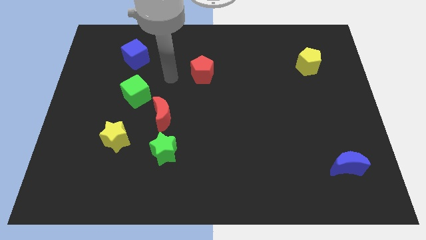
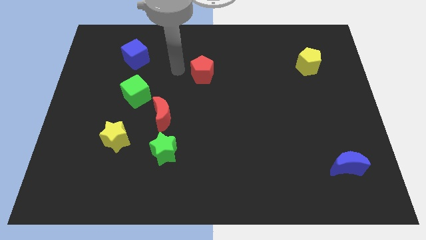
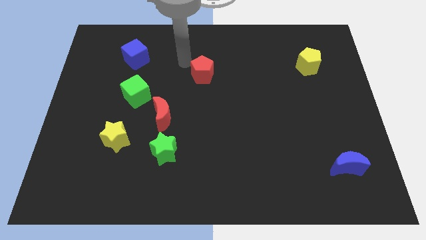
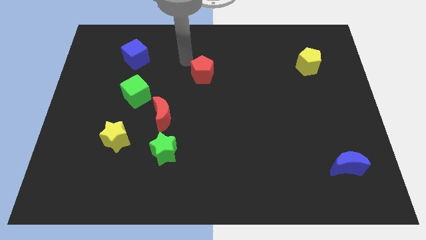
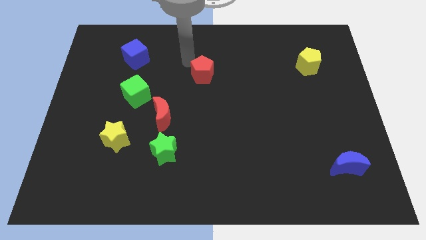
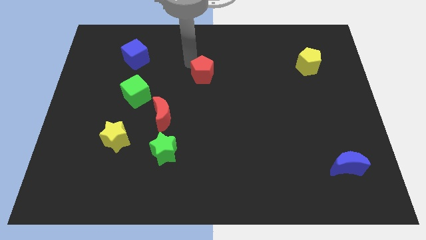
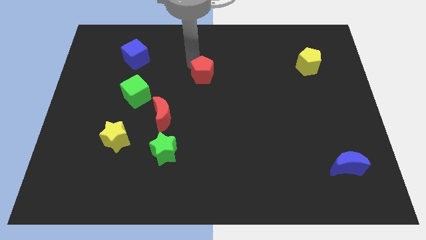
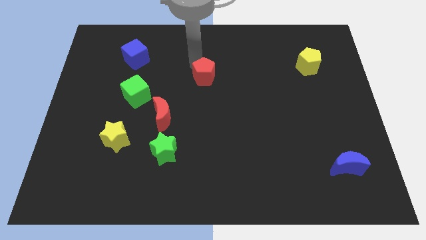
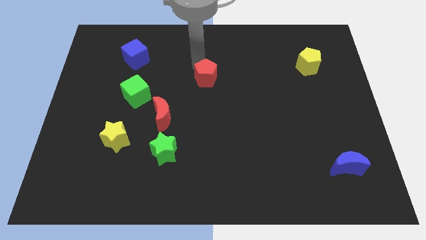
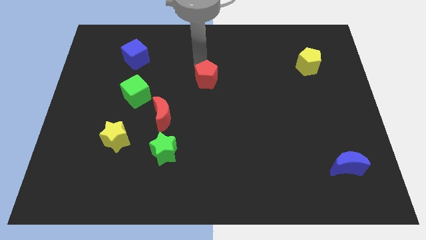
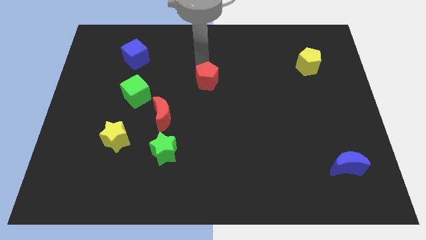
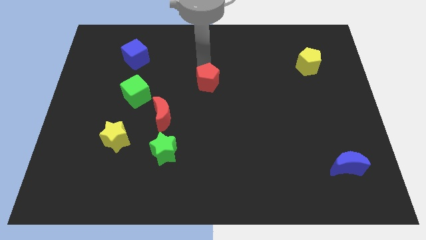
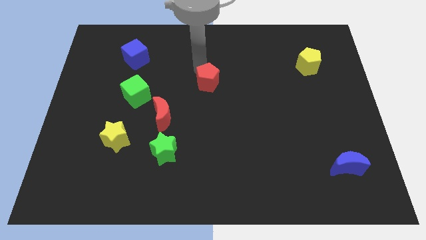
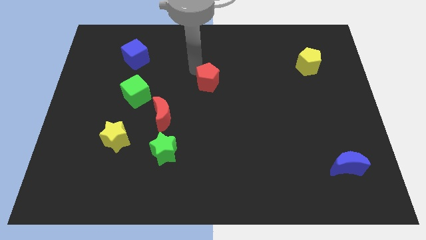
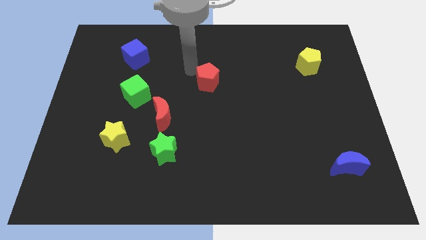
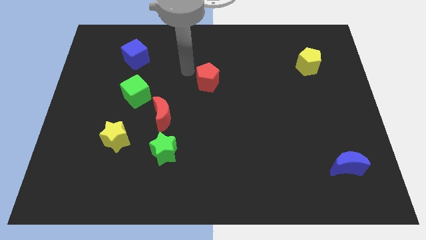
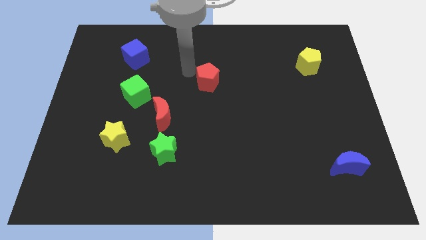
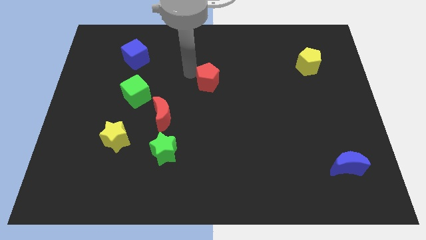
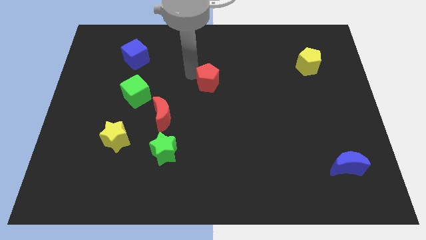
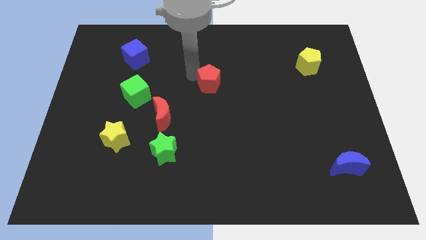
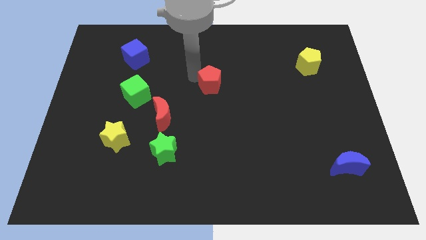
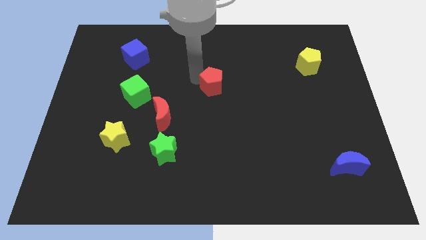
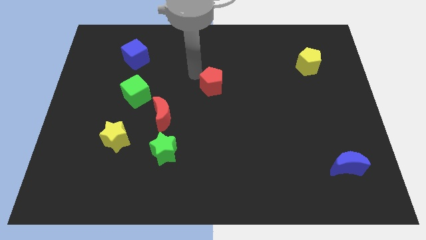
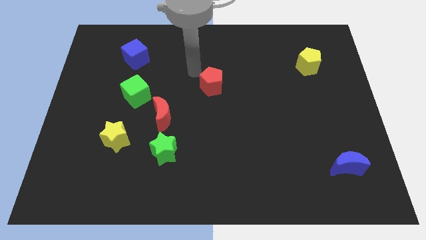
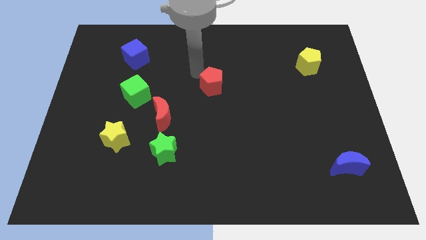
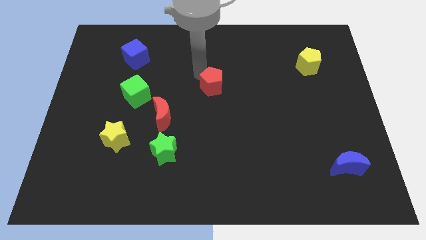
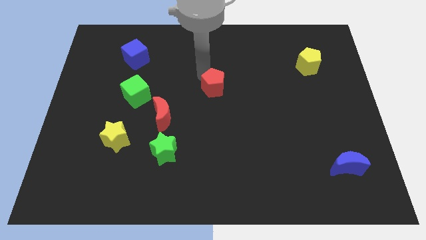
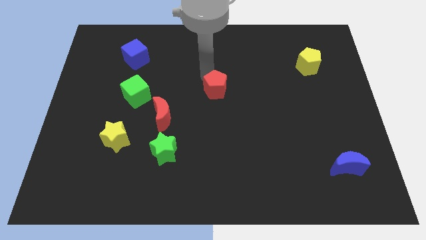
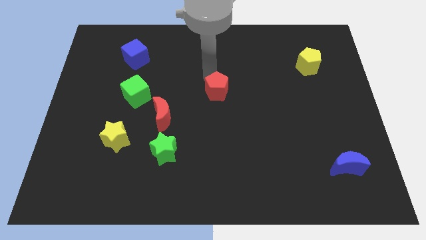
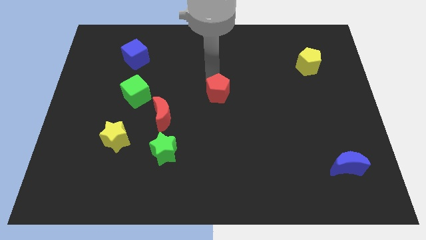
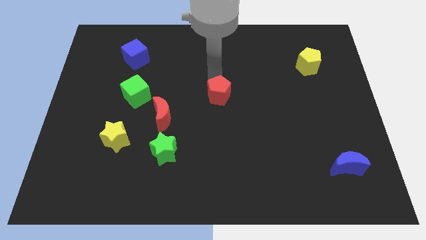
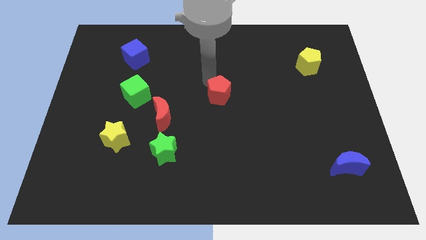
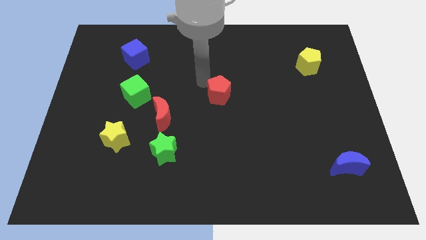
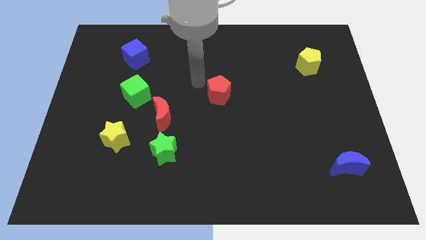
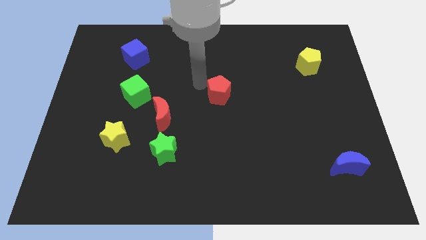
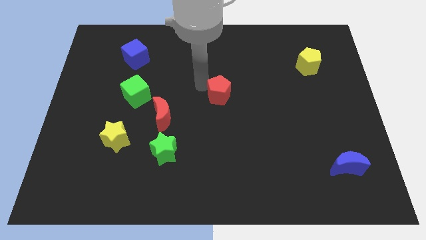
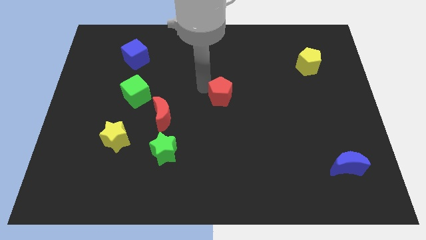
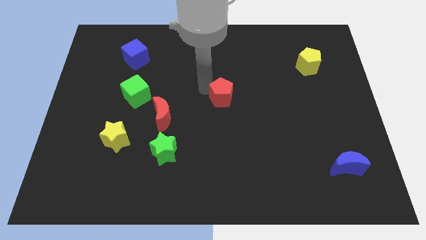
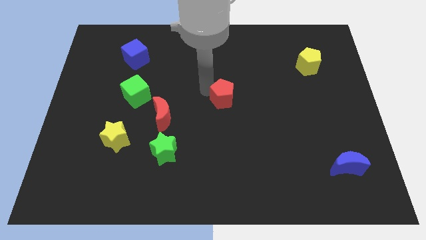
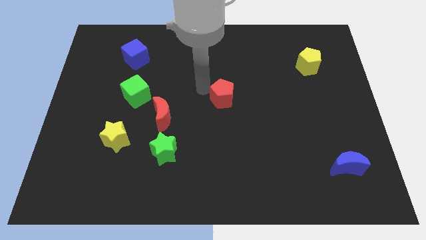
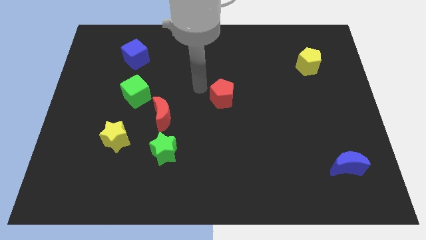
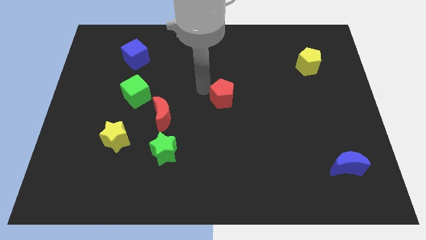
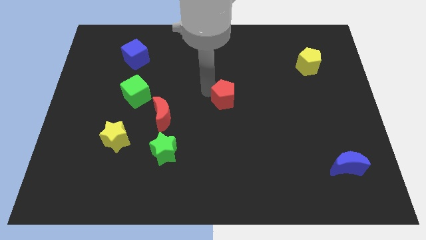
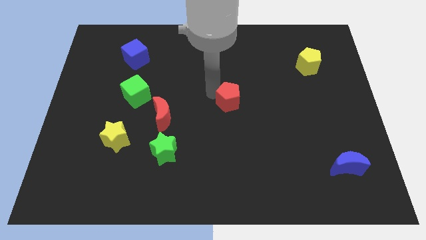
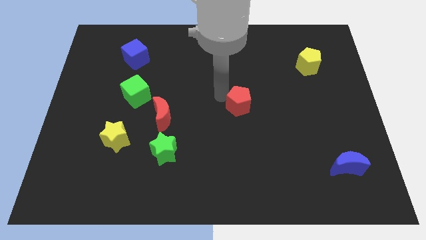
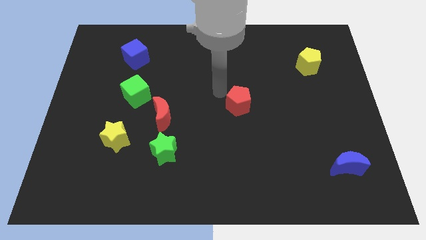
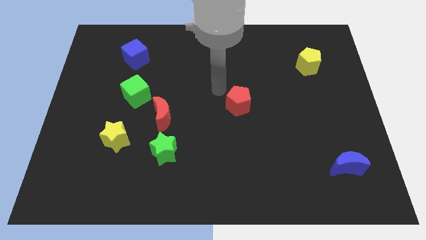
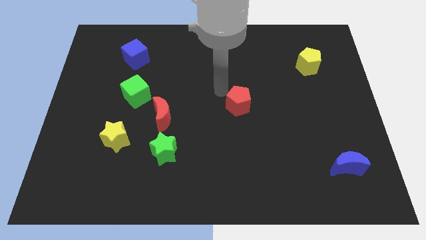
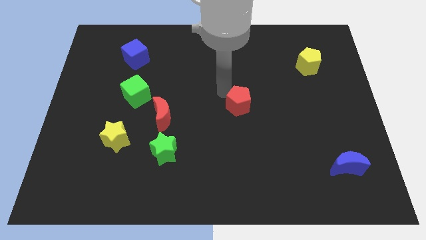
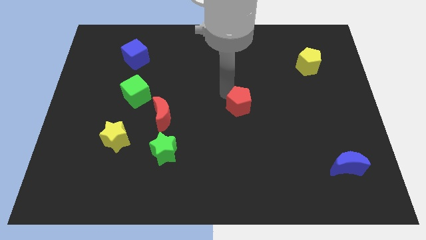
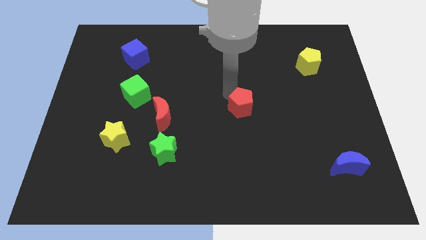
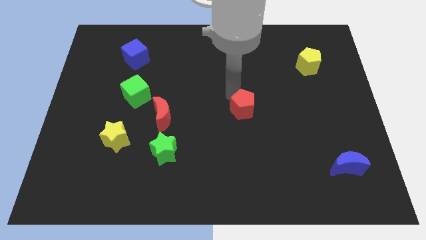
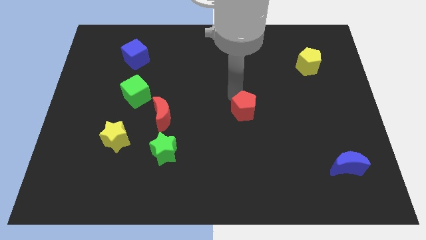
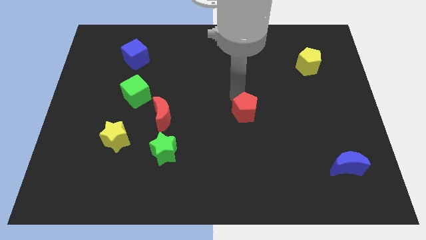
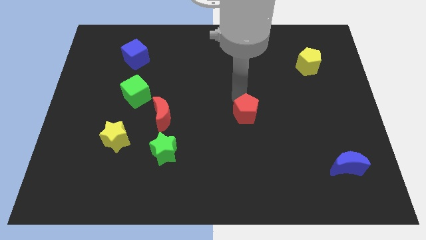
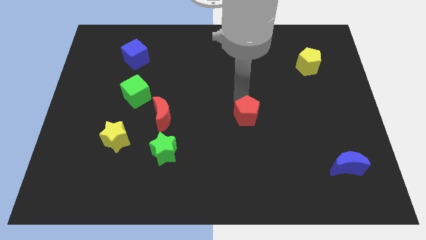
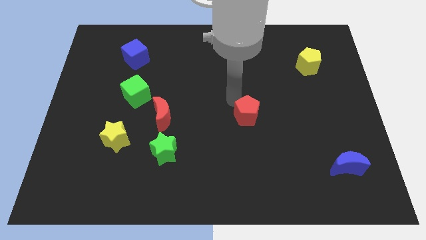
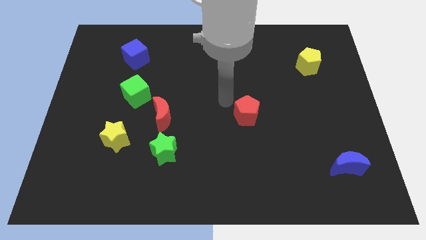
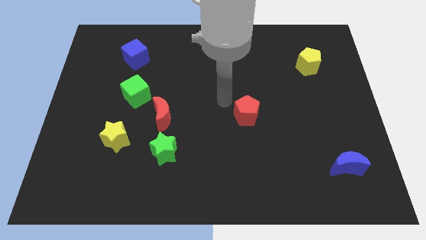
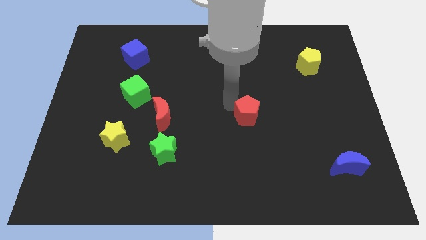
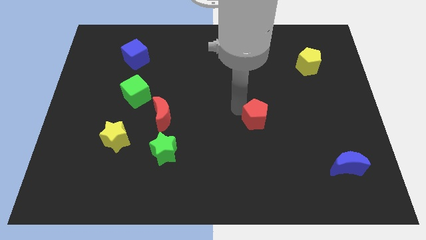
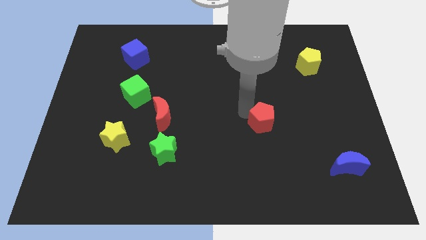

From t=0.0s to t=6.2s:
move the red pentagon diagonally downwards and right

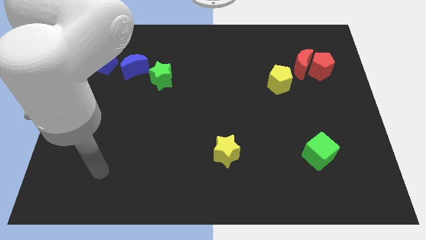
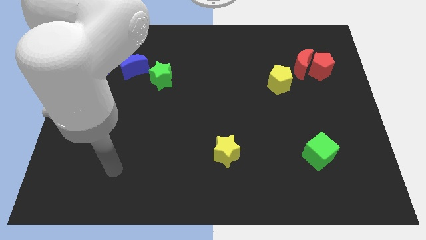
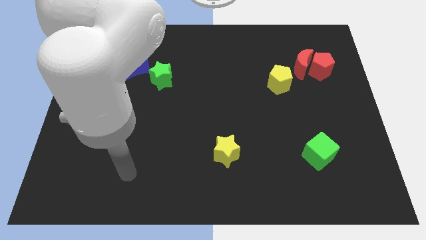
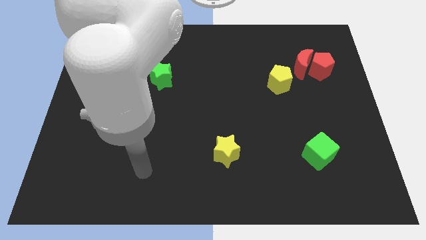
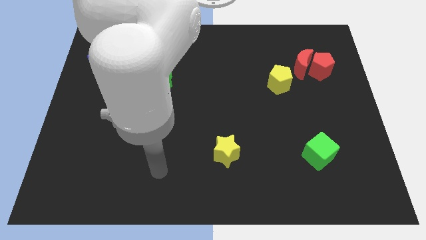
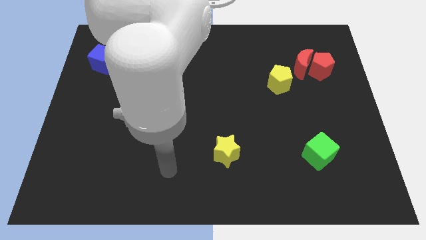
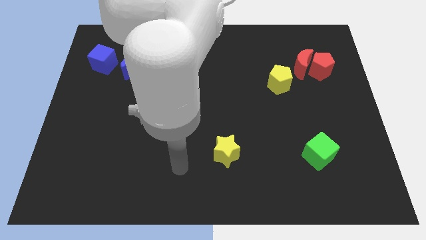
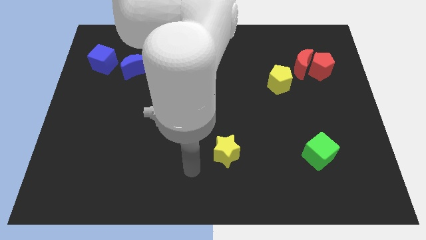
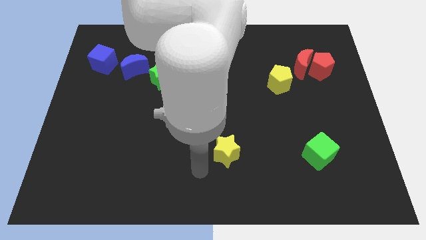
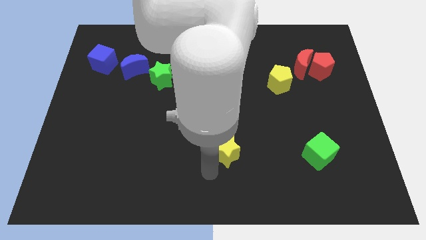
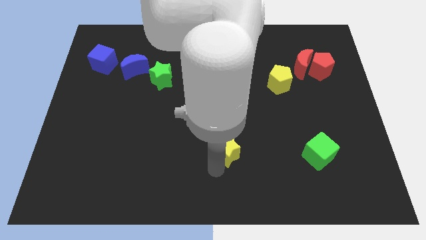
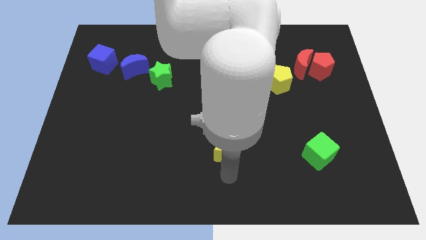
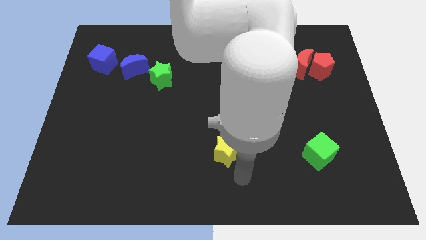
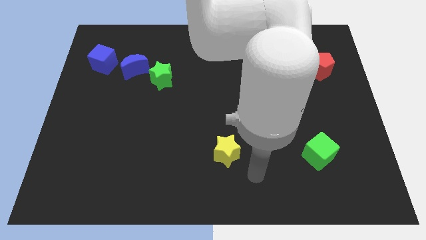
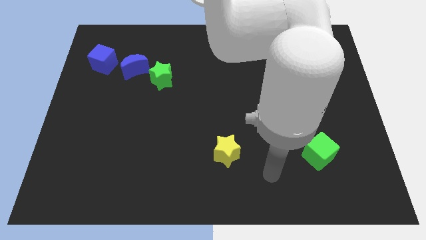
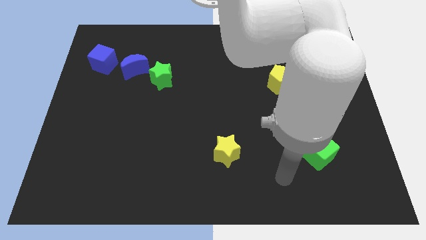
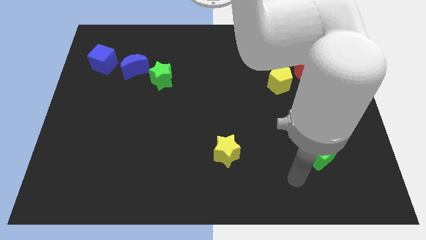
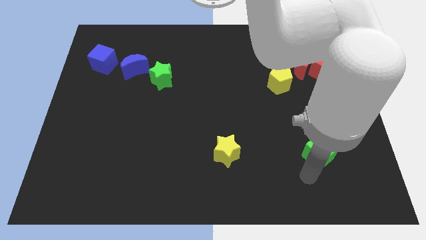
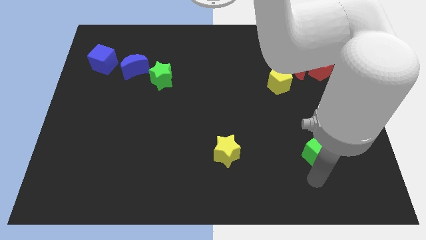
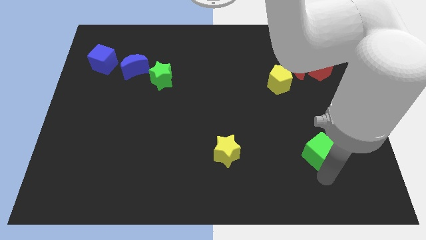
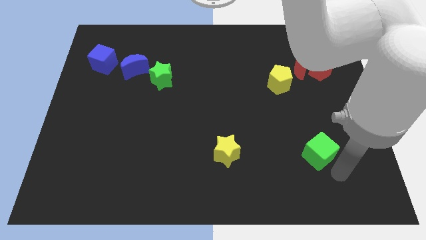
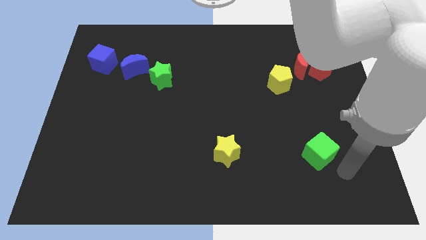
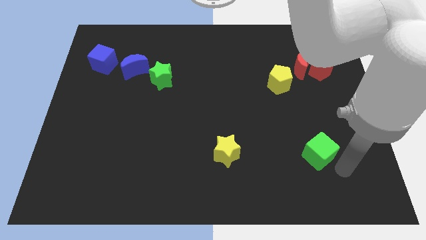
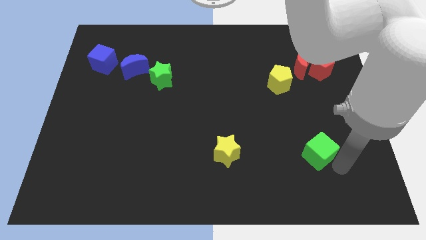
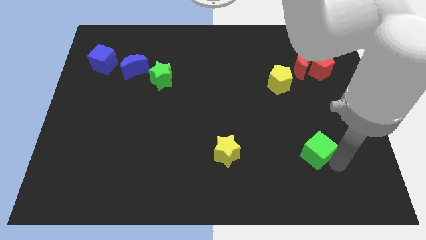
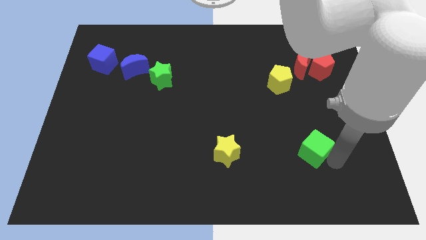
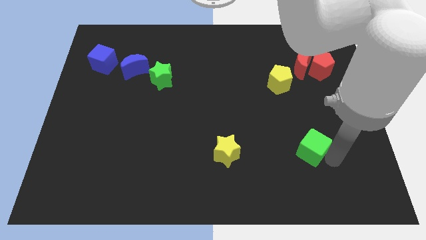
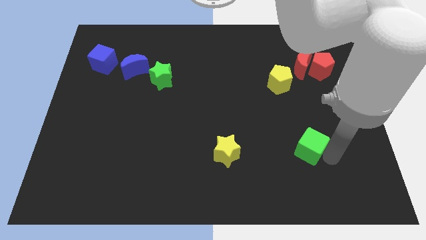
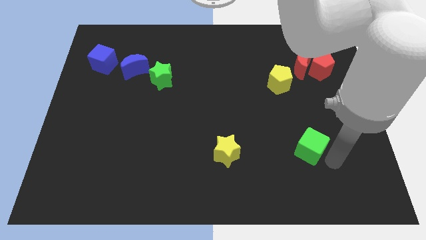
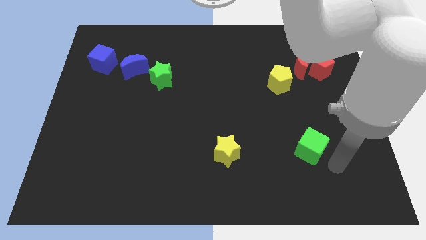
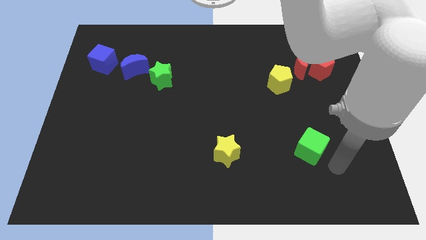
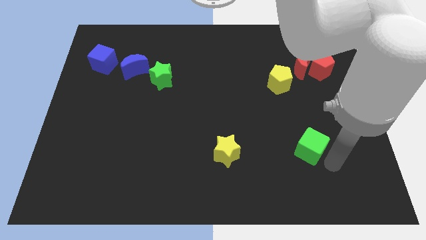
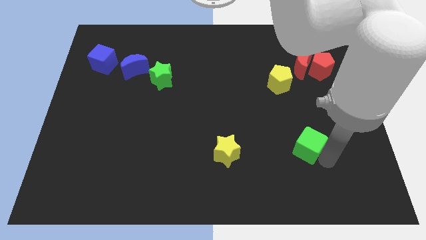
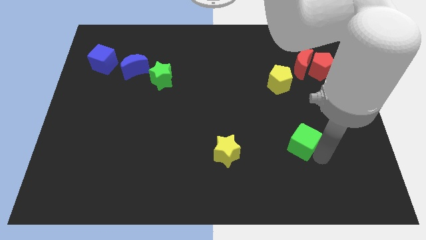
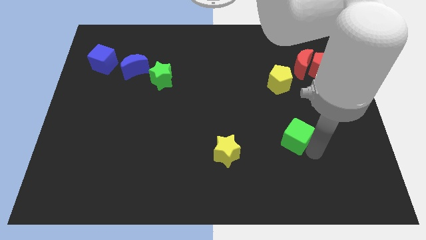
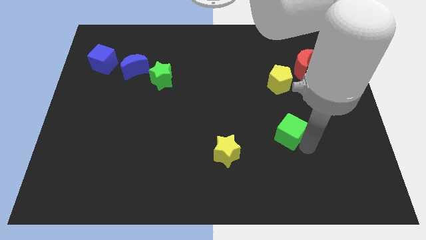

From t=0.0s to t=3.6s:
slide the green cube upwards and to the left diagonally somewhat
